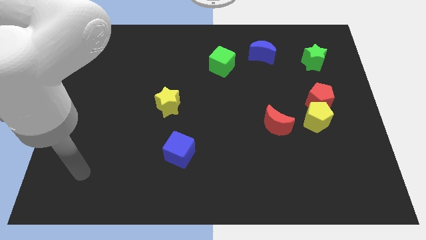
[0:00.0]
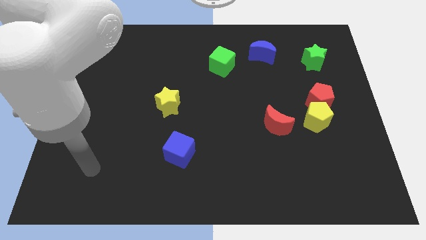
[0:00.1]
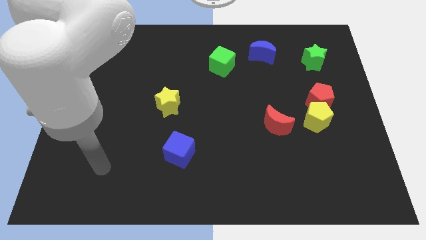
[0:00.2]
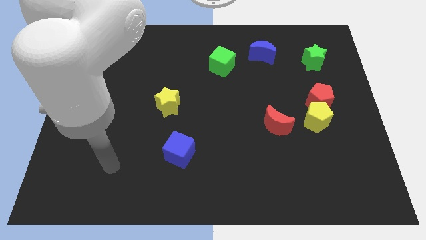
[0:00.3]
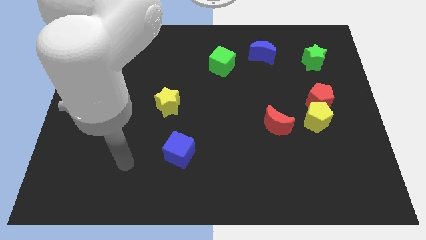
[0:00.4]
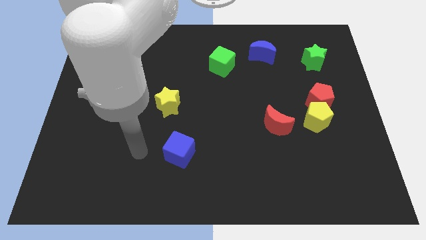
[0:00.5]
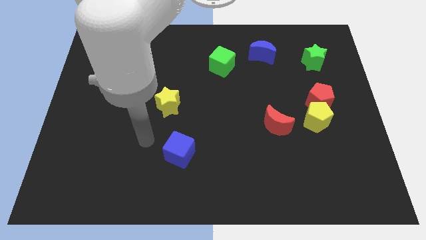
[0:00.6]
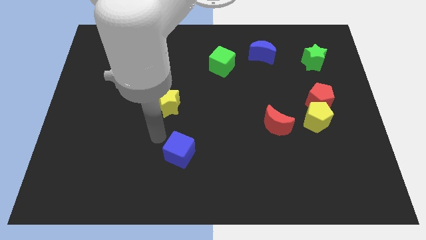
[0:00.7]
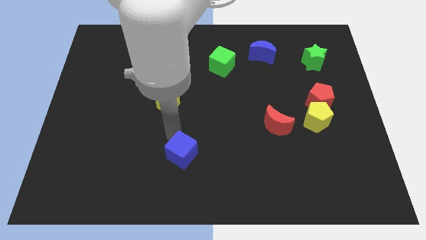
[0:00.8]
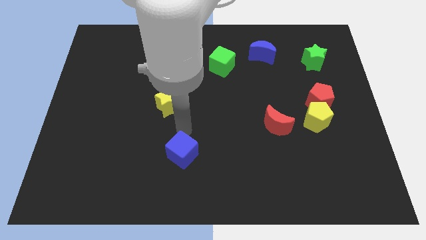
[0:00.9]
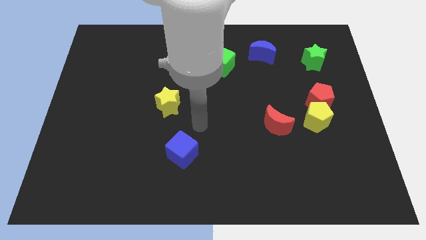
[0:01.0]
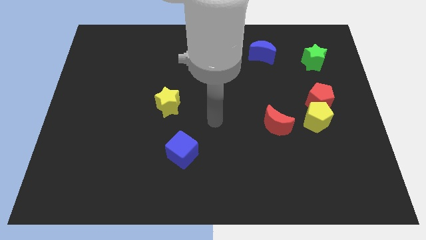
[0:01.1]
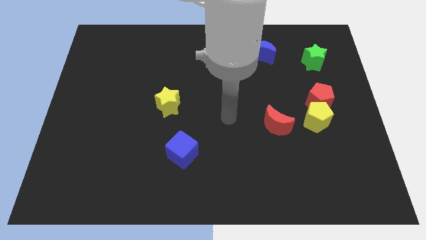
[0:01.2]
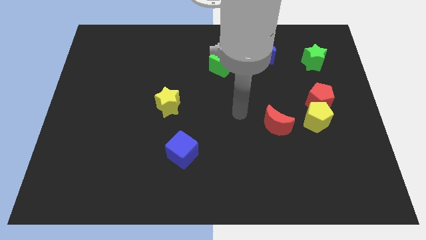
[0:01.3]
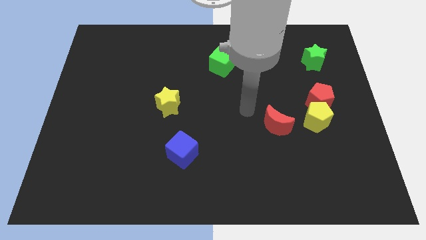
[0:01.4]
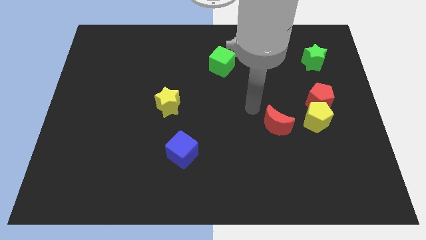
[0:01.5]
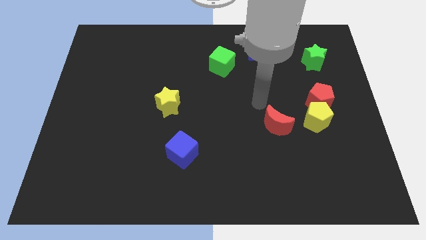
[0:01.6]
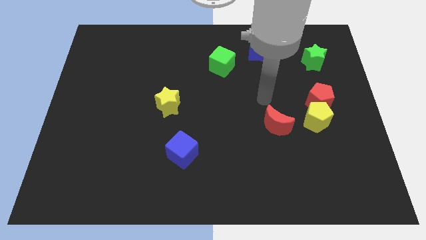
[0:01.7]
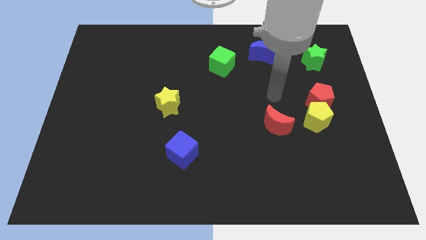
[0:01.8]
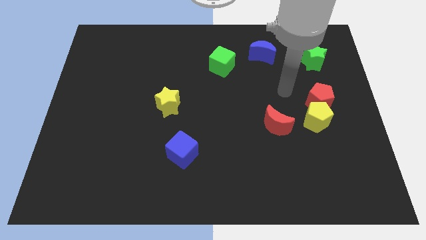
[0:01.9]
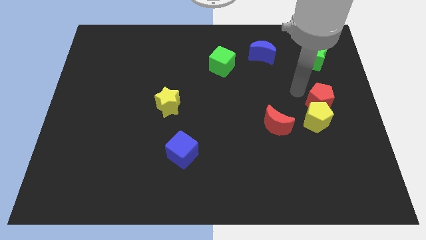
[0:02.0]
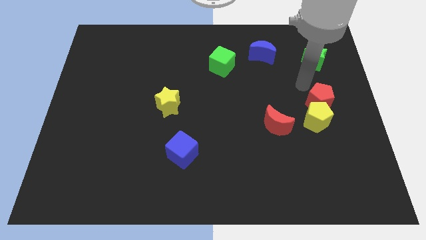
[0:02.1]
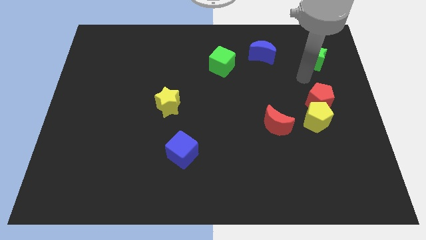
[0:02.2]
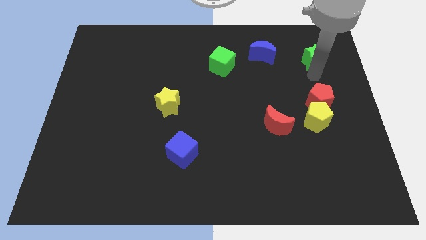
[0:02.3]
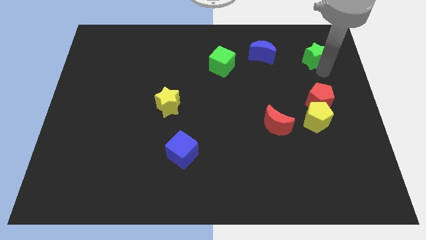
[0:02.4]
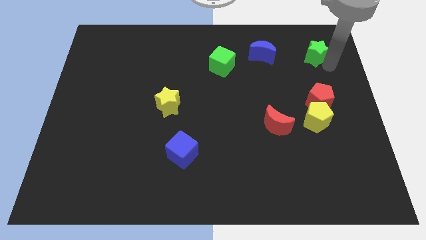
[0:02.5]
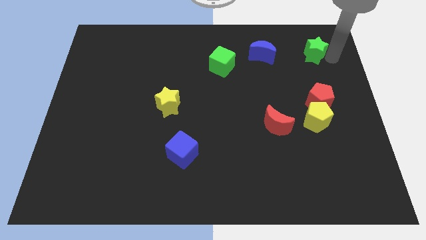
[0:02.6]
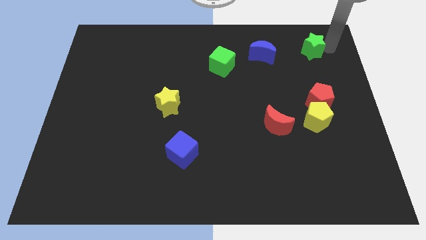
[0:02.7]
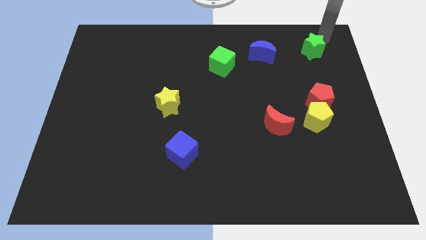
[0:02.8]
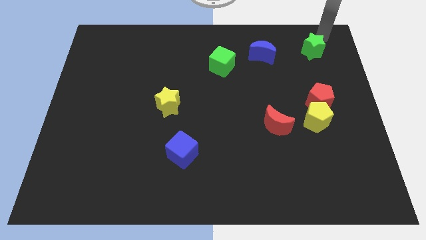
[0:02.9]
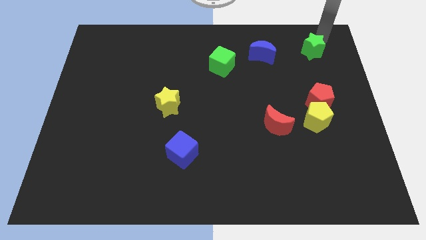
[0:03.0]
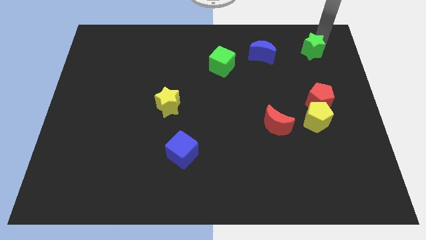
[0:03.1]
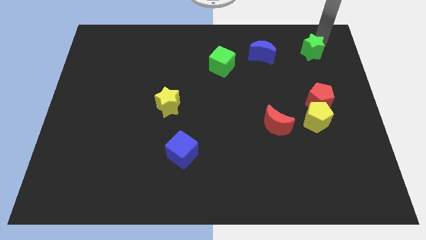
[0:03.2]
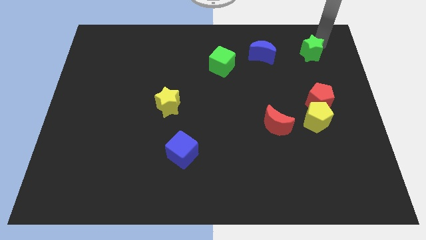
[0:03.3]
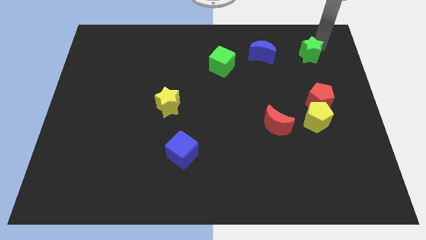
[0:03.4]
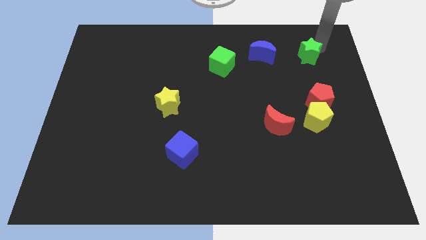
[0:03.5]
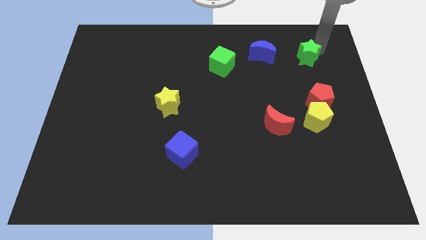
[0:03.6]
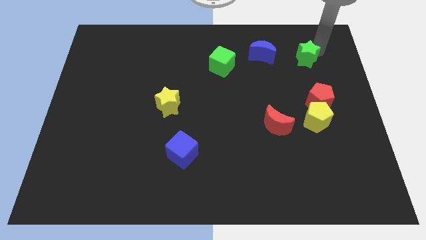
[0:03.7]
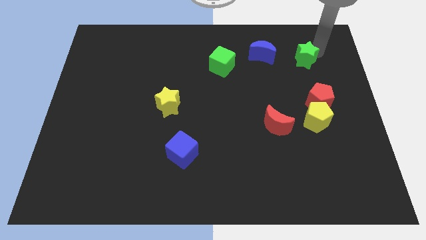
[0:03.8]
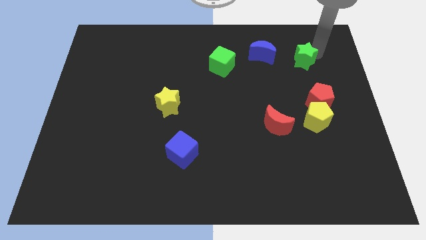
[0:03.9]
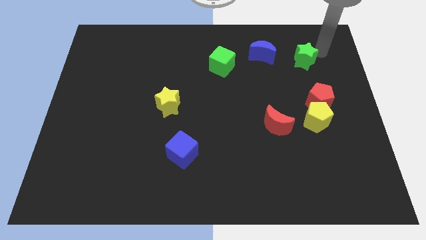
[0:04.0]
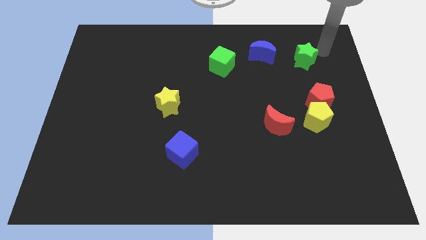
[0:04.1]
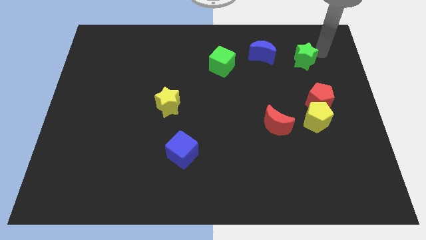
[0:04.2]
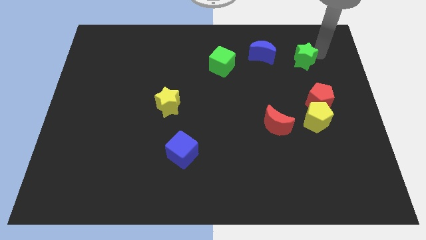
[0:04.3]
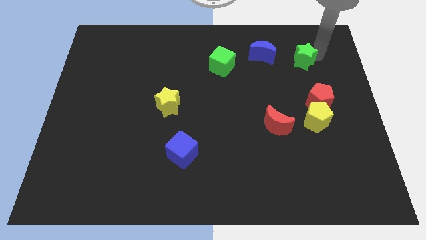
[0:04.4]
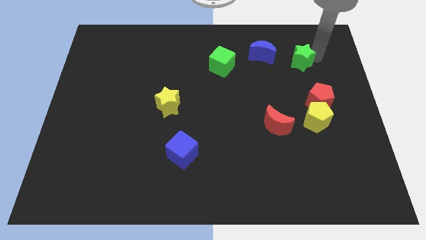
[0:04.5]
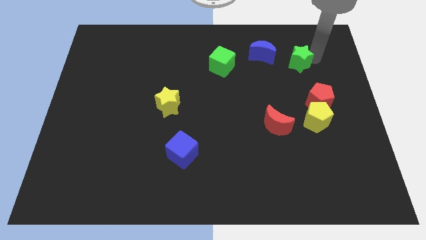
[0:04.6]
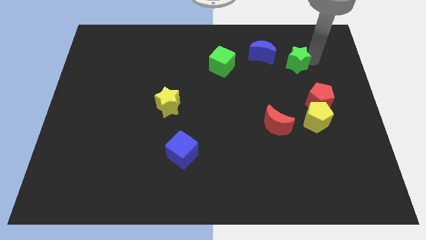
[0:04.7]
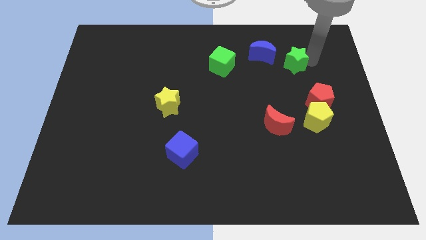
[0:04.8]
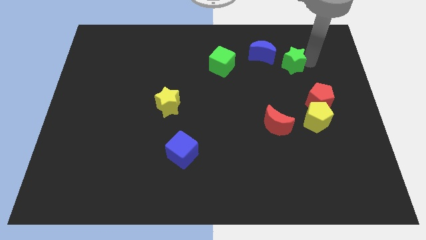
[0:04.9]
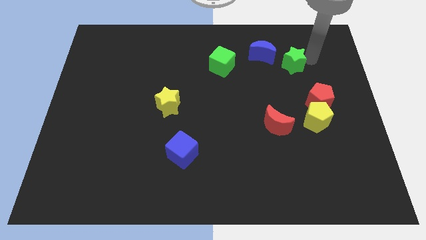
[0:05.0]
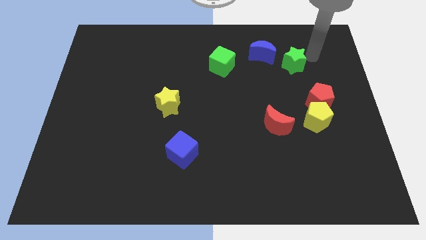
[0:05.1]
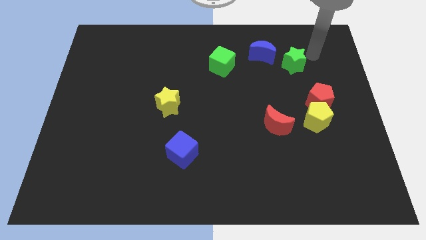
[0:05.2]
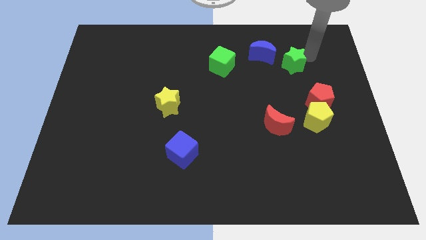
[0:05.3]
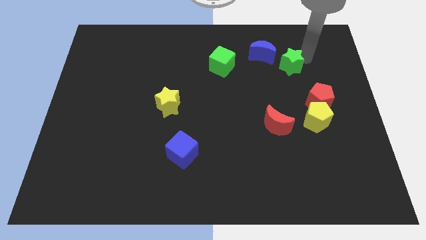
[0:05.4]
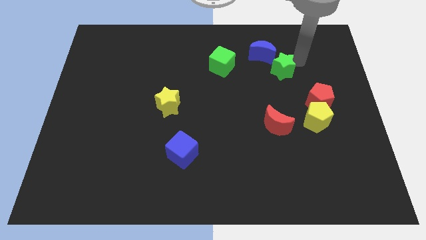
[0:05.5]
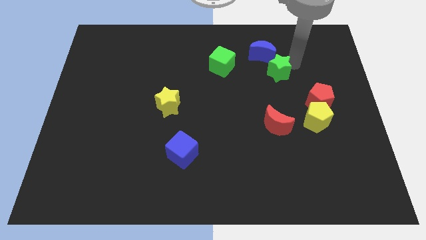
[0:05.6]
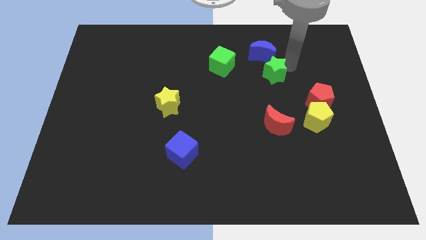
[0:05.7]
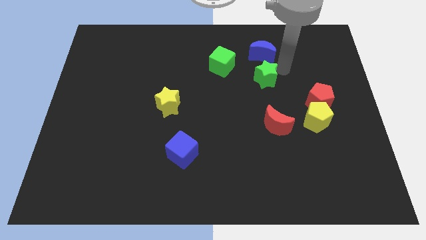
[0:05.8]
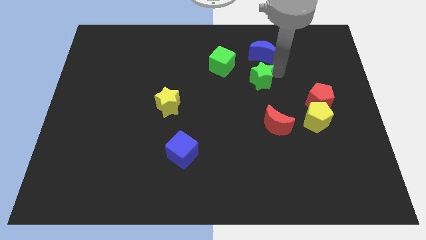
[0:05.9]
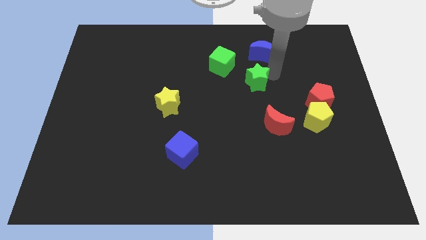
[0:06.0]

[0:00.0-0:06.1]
put the green star to the middle

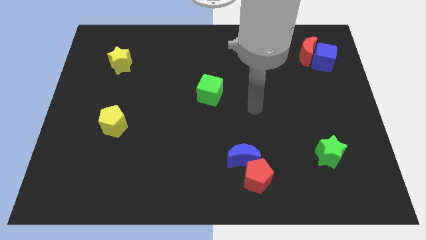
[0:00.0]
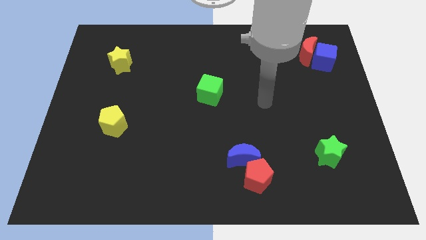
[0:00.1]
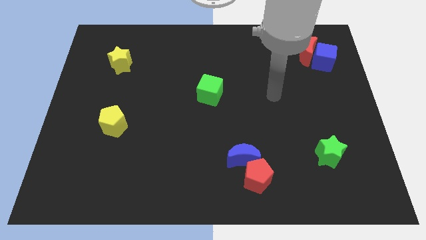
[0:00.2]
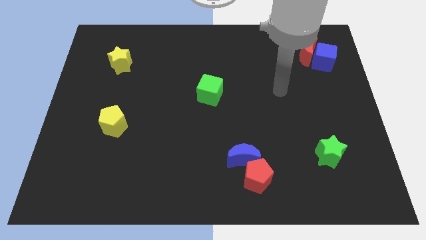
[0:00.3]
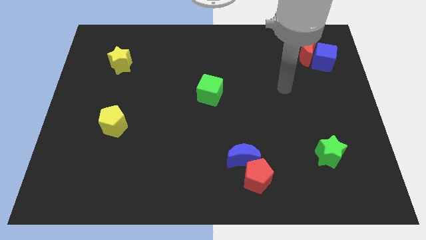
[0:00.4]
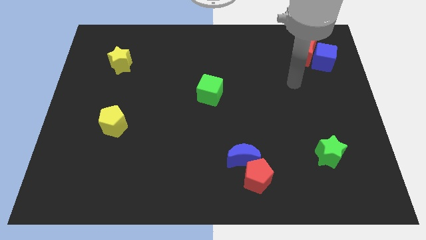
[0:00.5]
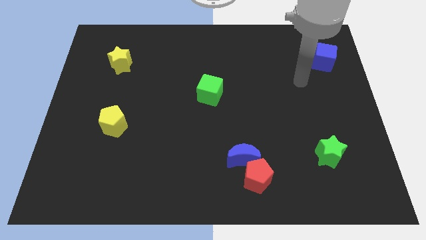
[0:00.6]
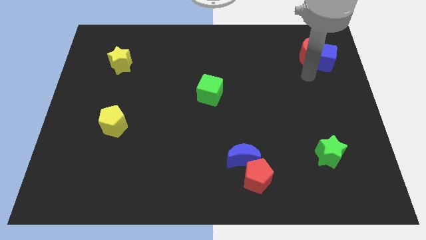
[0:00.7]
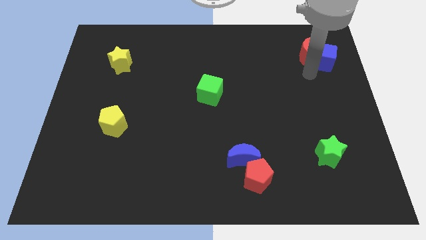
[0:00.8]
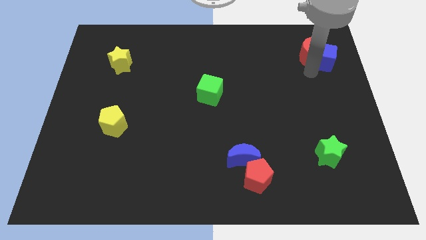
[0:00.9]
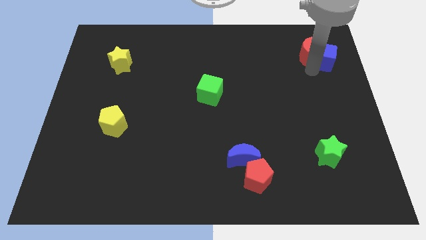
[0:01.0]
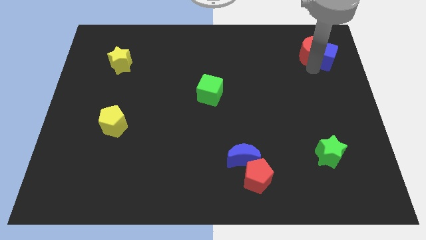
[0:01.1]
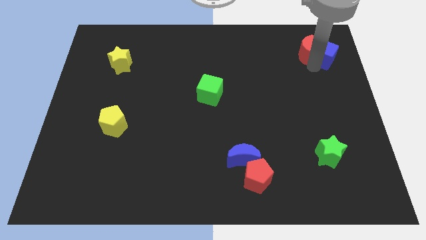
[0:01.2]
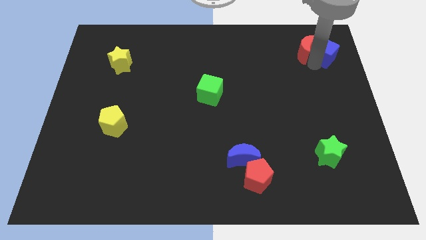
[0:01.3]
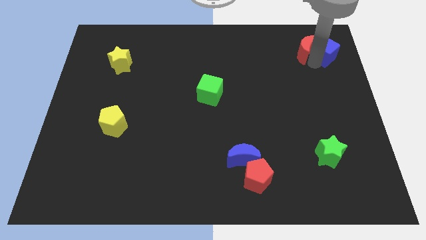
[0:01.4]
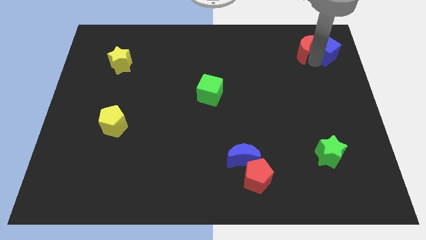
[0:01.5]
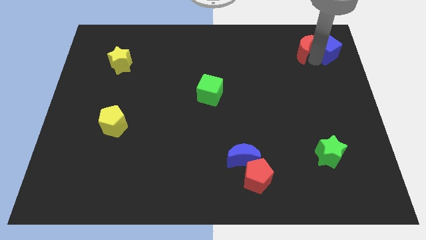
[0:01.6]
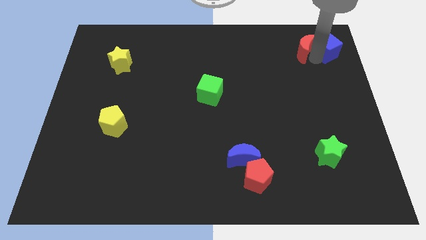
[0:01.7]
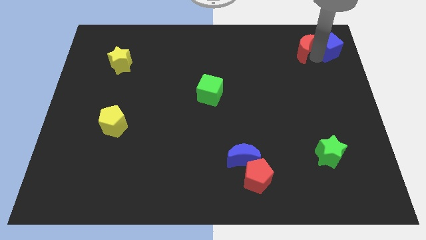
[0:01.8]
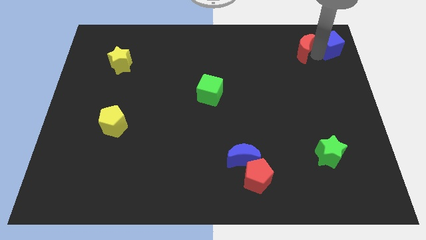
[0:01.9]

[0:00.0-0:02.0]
push the blue cube to the top right of the board
